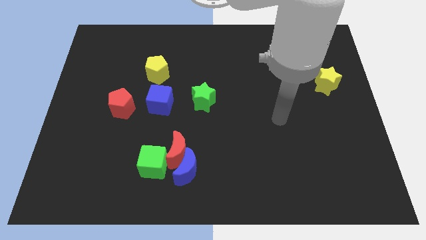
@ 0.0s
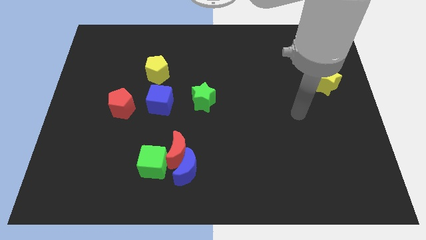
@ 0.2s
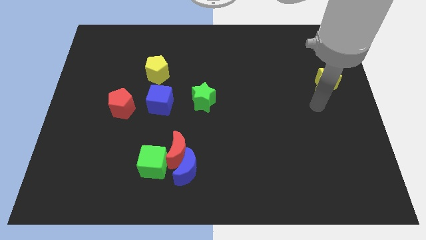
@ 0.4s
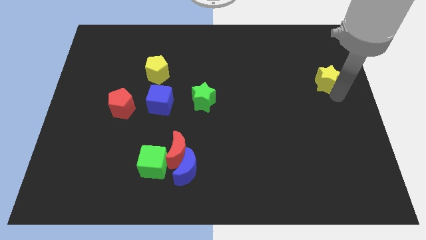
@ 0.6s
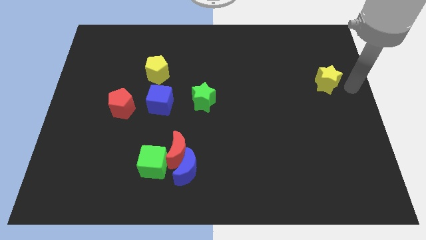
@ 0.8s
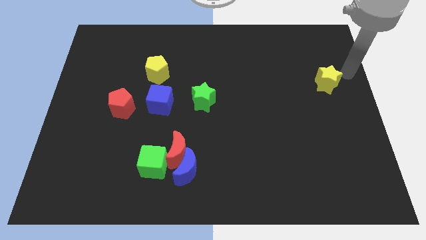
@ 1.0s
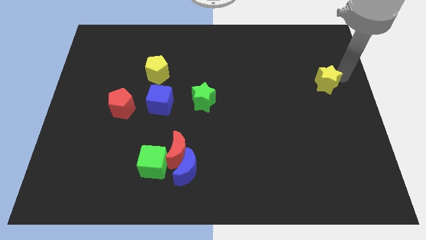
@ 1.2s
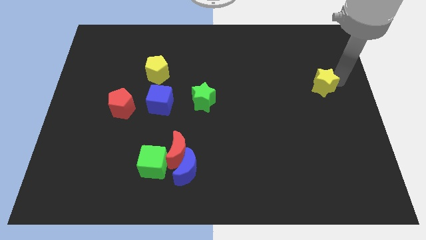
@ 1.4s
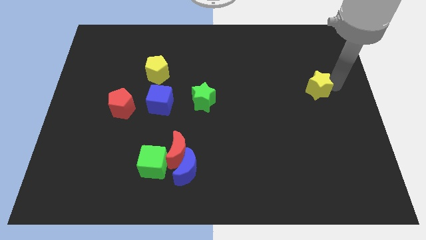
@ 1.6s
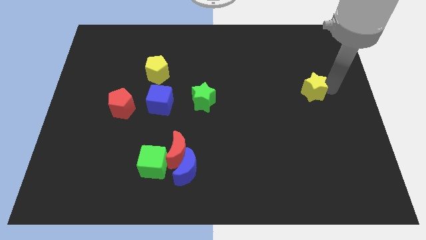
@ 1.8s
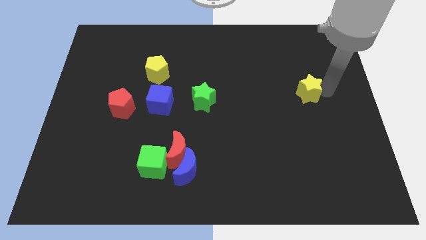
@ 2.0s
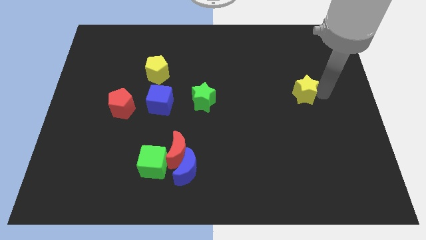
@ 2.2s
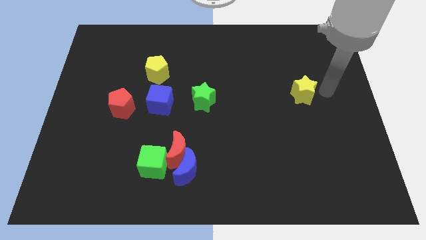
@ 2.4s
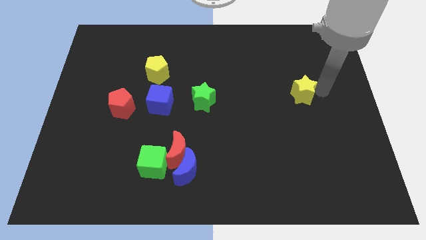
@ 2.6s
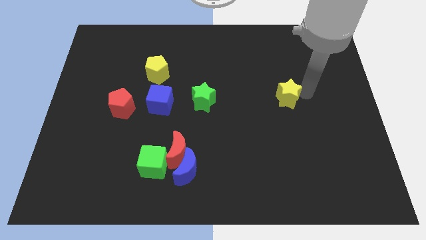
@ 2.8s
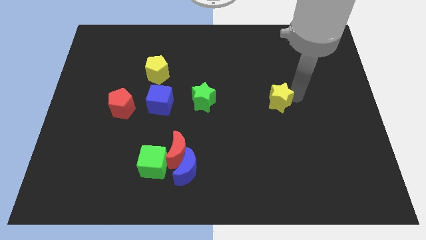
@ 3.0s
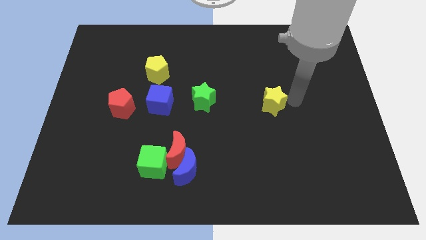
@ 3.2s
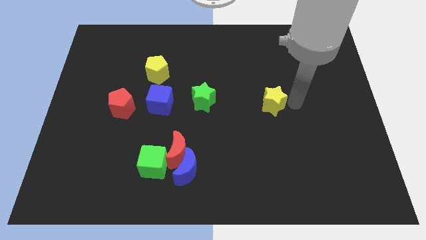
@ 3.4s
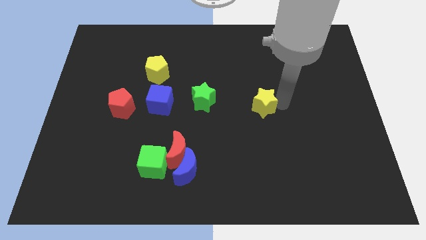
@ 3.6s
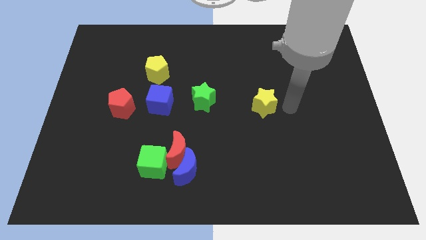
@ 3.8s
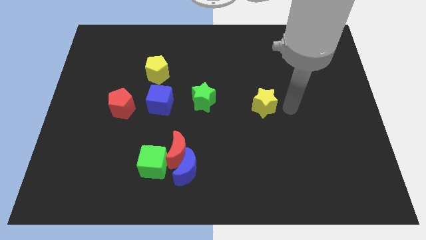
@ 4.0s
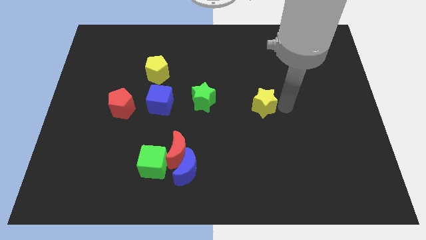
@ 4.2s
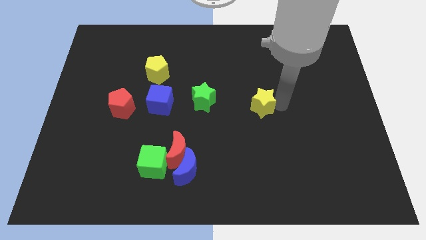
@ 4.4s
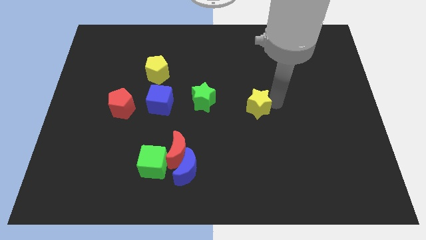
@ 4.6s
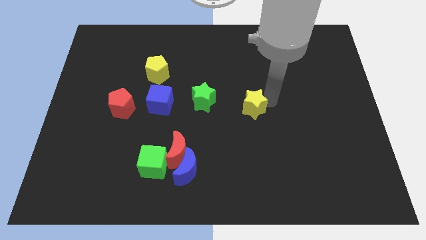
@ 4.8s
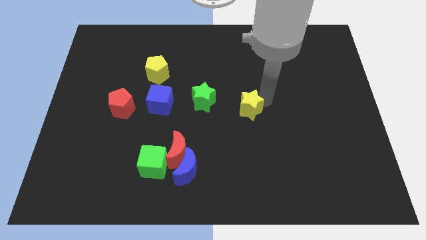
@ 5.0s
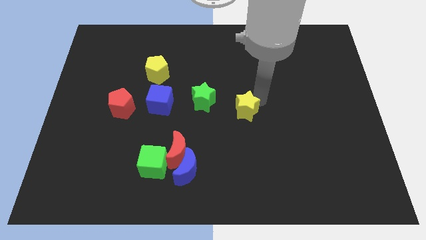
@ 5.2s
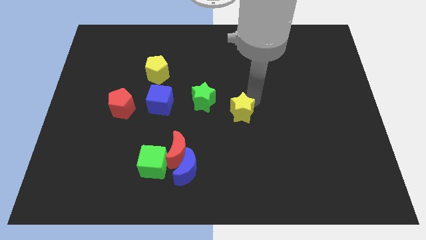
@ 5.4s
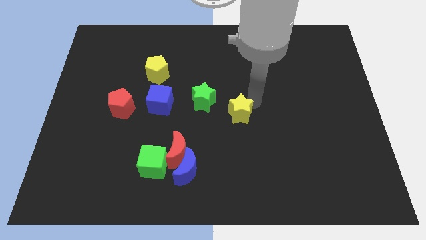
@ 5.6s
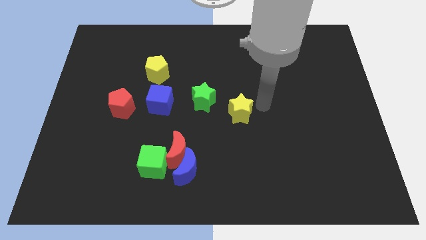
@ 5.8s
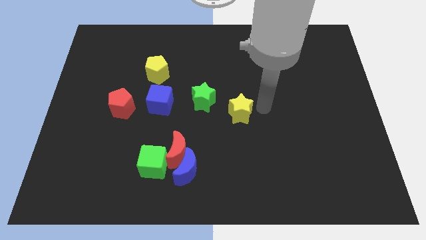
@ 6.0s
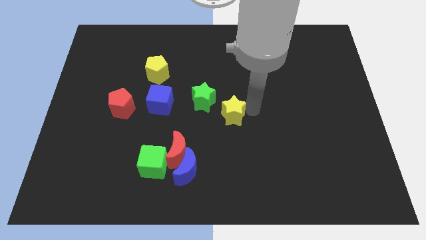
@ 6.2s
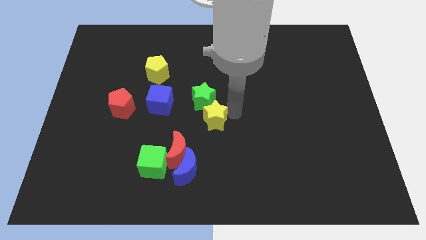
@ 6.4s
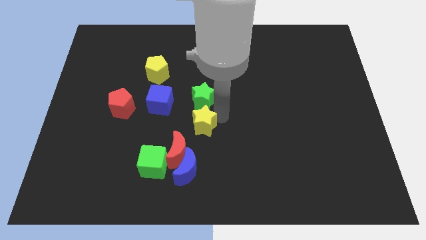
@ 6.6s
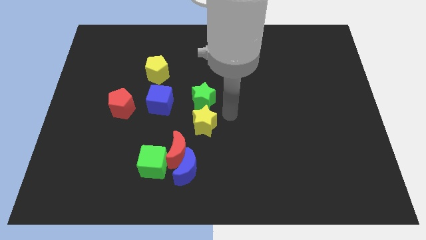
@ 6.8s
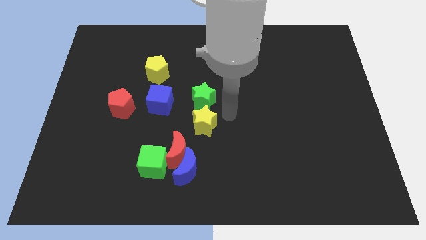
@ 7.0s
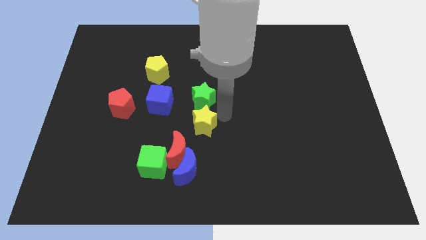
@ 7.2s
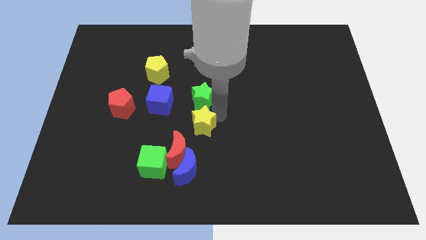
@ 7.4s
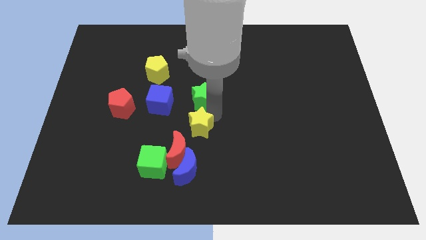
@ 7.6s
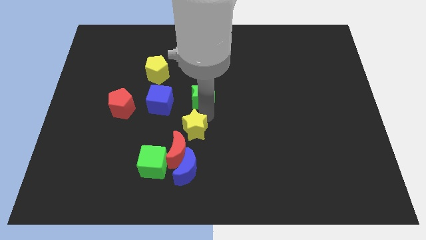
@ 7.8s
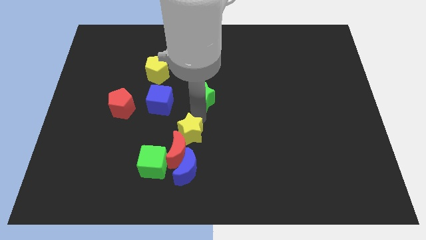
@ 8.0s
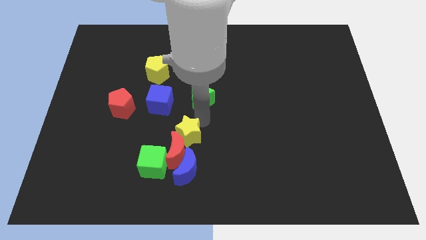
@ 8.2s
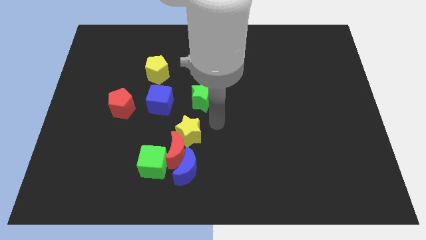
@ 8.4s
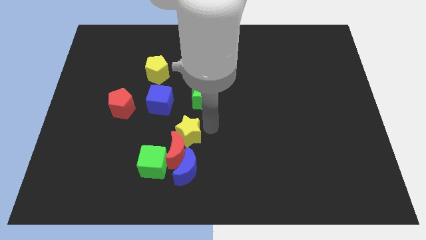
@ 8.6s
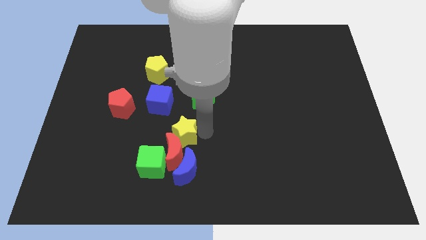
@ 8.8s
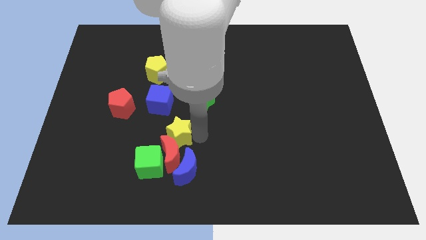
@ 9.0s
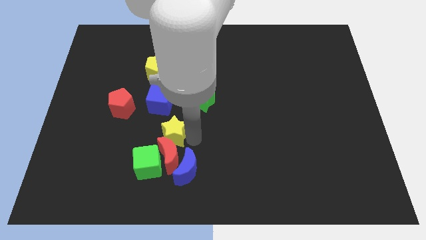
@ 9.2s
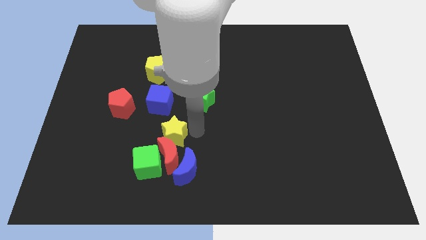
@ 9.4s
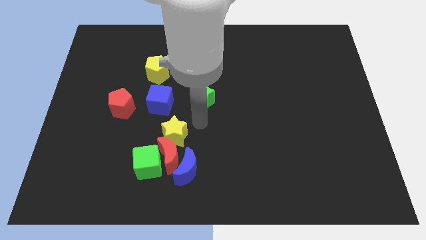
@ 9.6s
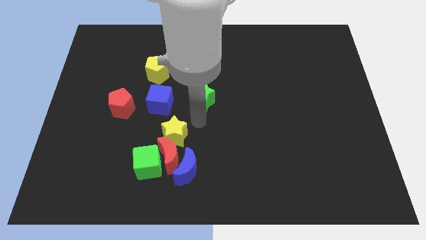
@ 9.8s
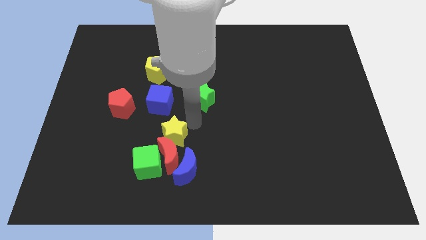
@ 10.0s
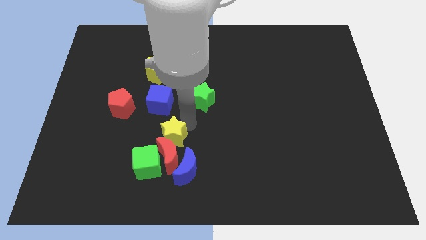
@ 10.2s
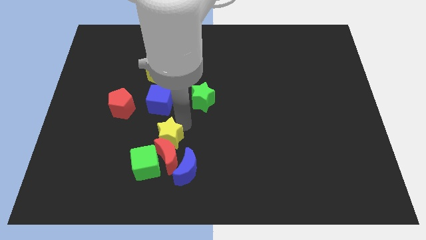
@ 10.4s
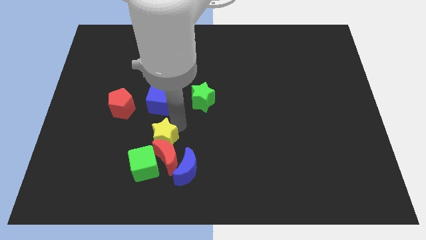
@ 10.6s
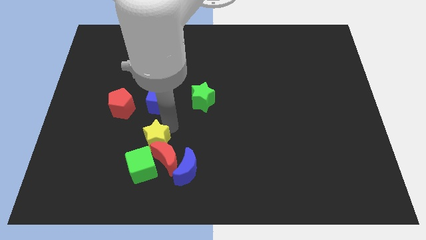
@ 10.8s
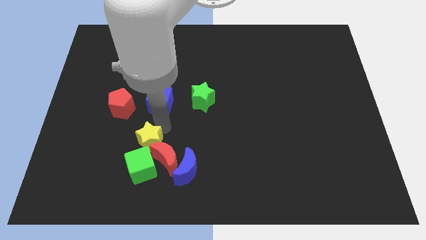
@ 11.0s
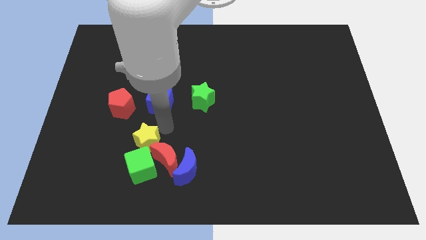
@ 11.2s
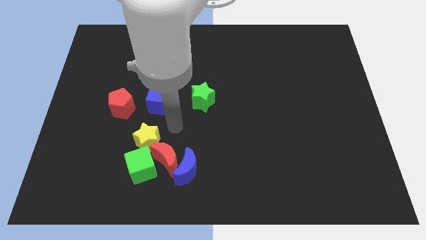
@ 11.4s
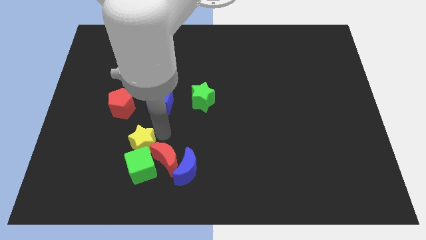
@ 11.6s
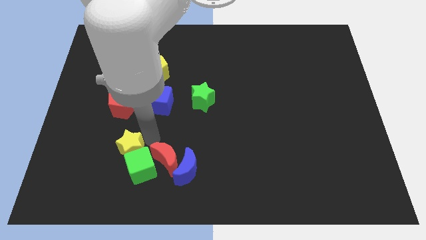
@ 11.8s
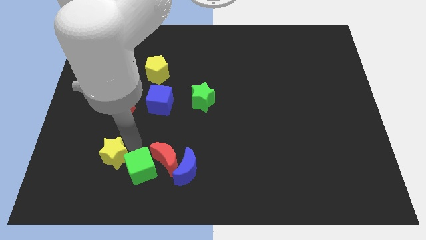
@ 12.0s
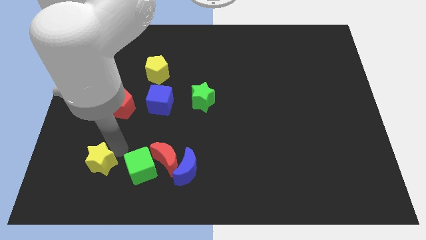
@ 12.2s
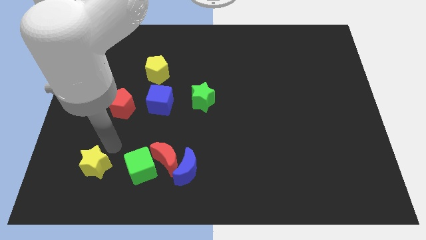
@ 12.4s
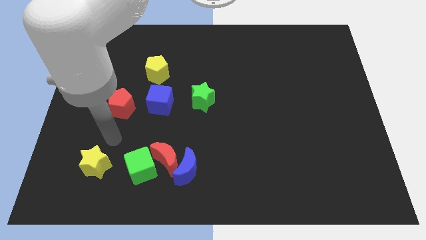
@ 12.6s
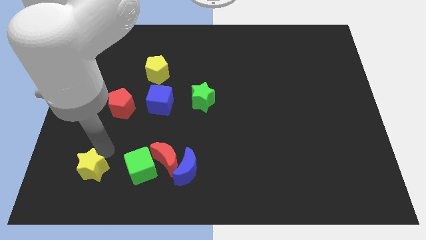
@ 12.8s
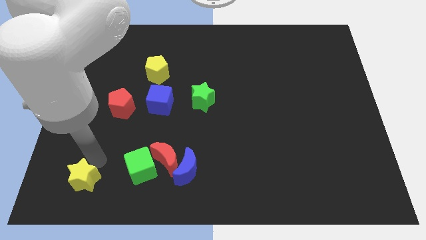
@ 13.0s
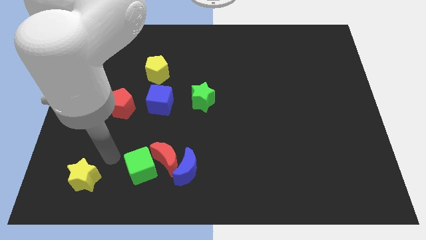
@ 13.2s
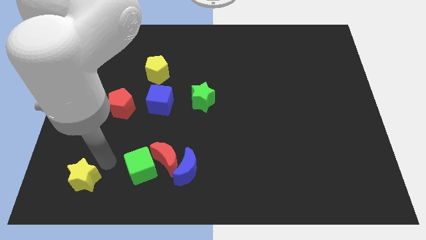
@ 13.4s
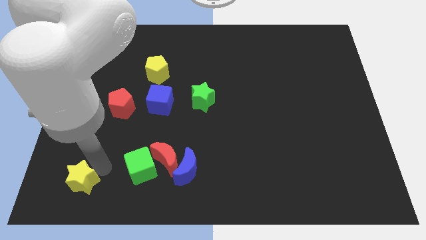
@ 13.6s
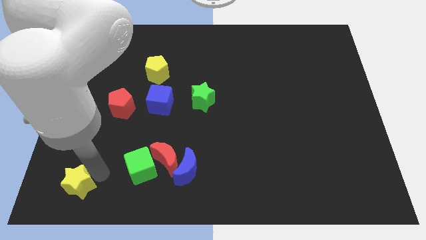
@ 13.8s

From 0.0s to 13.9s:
move the yellow star to the bottom left of the board
